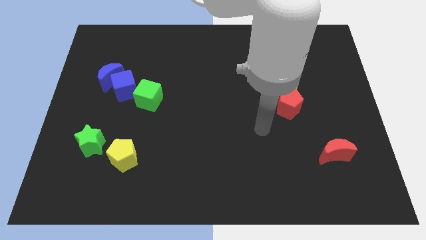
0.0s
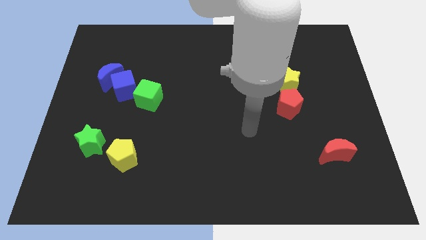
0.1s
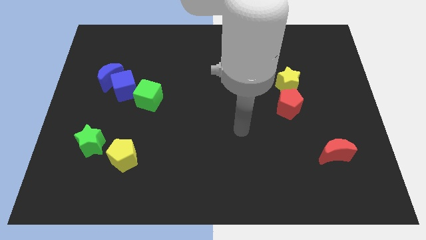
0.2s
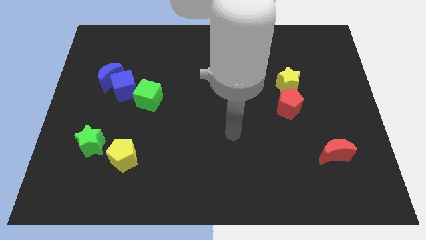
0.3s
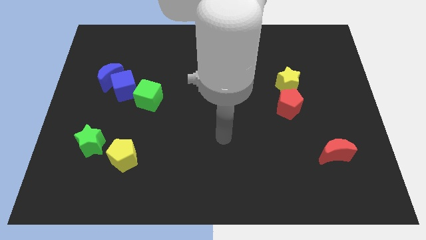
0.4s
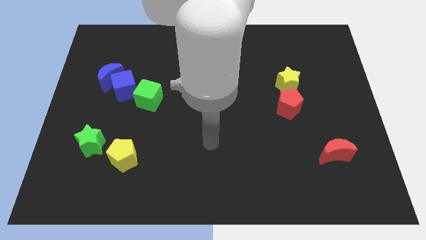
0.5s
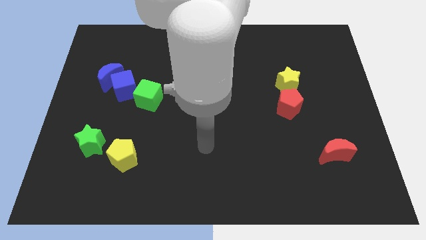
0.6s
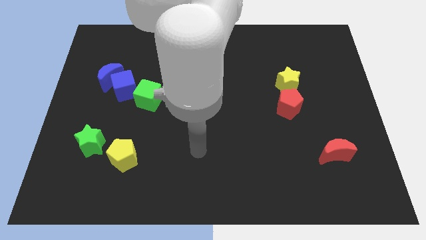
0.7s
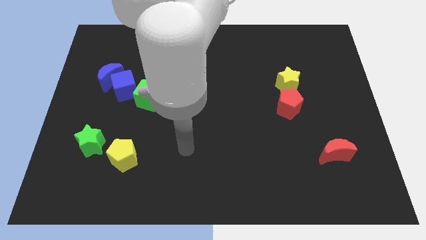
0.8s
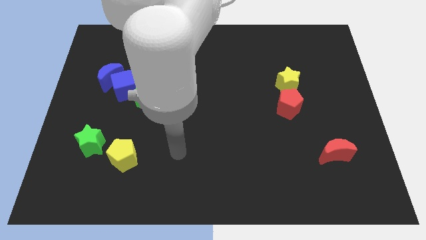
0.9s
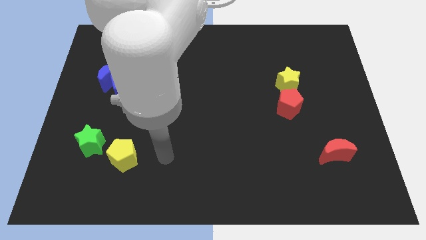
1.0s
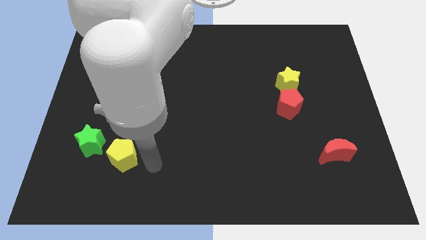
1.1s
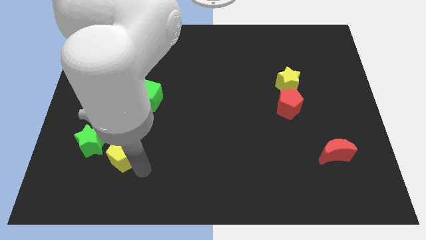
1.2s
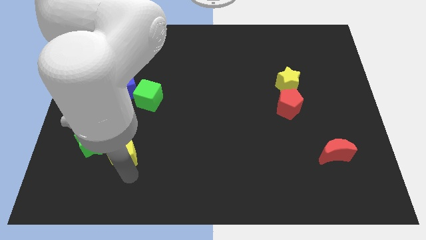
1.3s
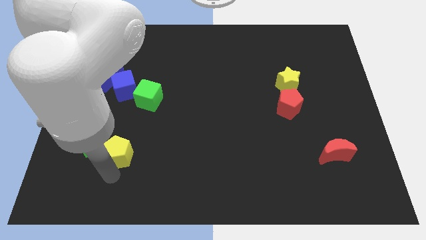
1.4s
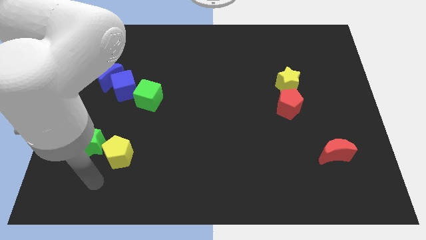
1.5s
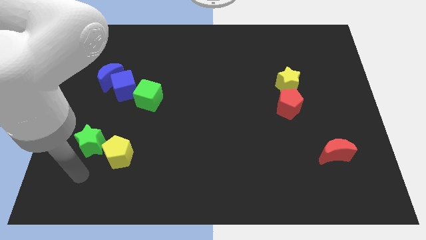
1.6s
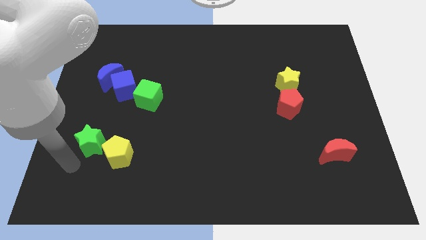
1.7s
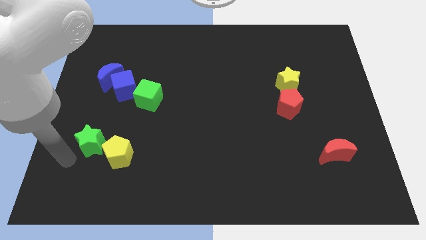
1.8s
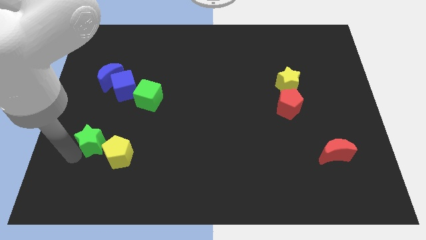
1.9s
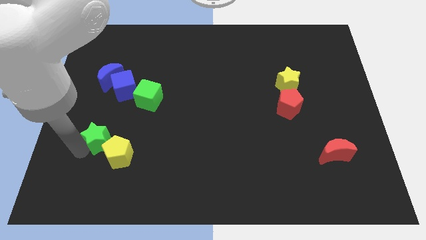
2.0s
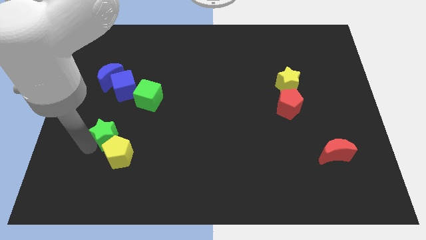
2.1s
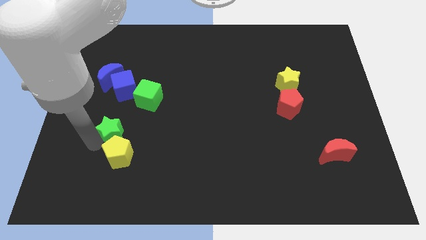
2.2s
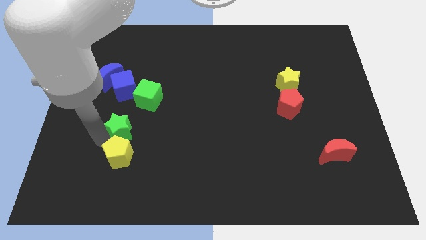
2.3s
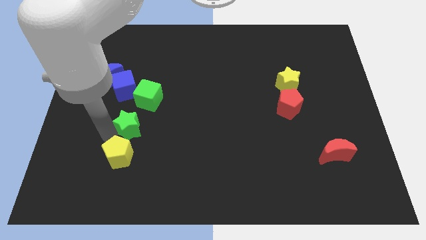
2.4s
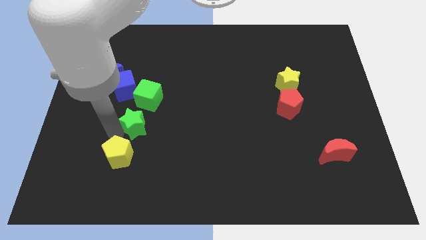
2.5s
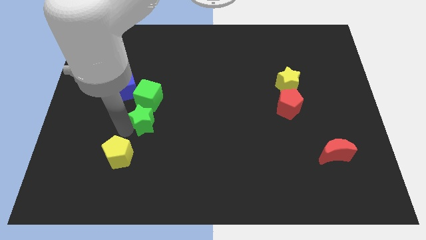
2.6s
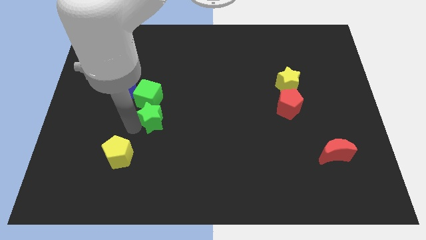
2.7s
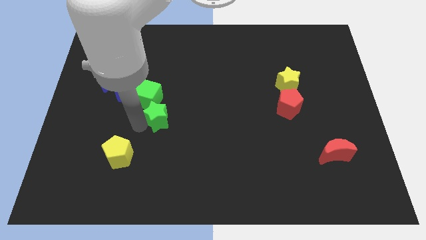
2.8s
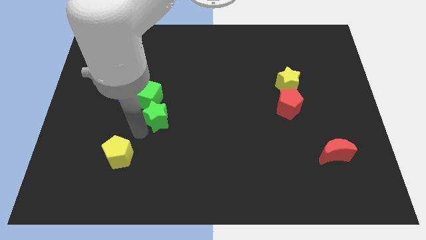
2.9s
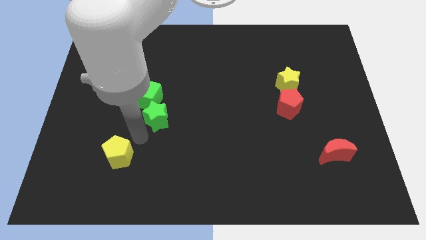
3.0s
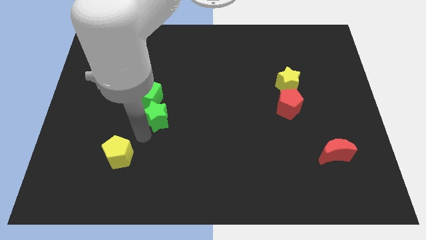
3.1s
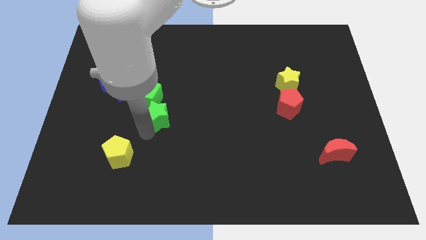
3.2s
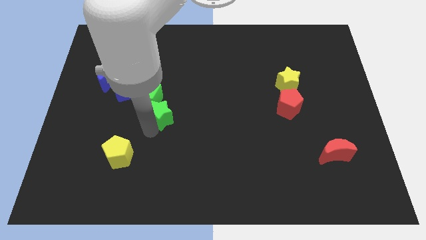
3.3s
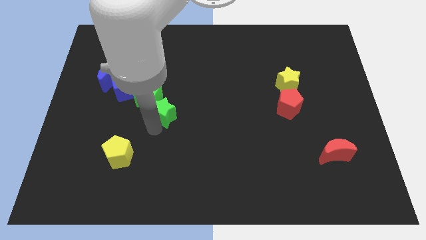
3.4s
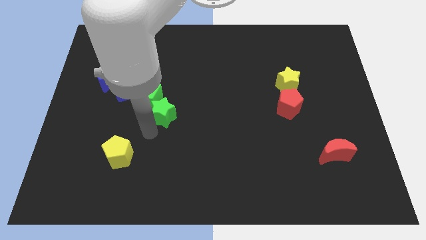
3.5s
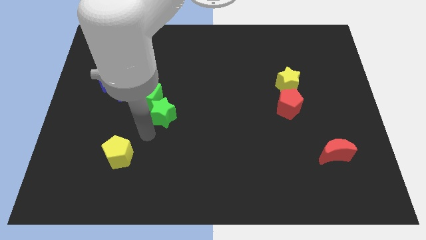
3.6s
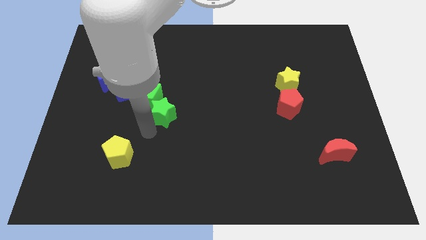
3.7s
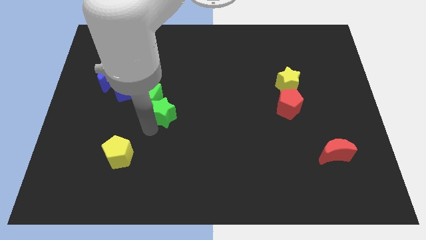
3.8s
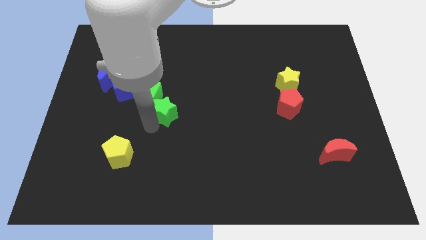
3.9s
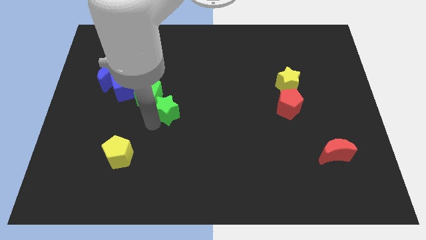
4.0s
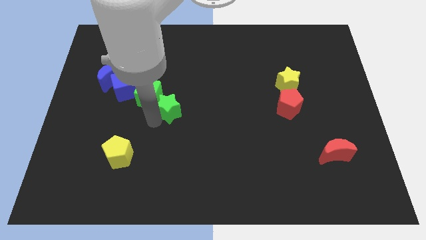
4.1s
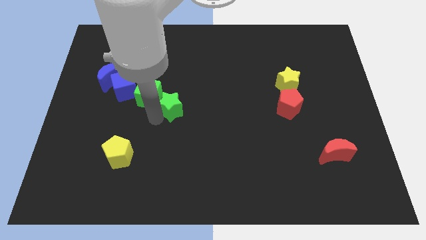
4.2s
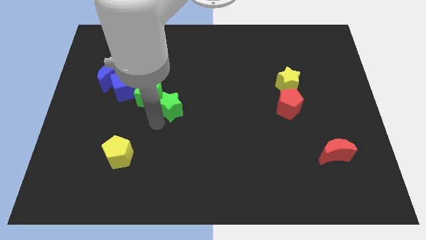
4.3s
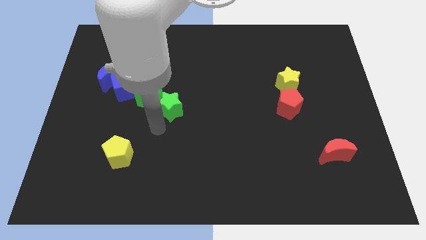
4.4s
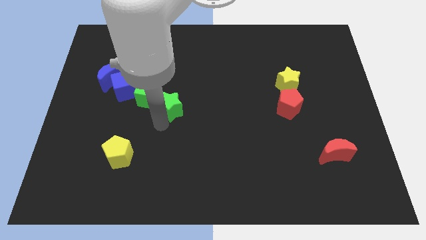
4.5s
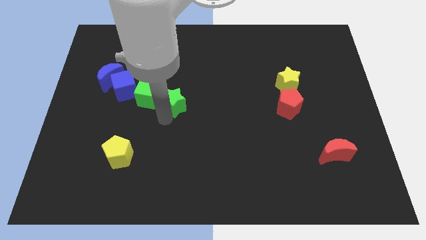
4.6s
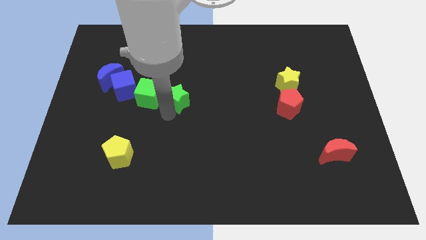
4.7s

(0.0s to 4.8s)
move the green star up and to the right

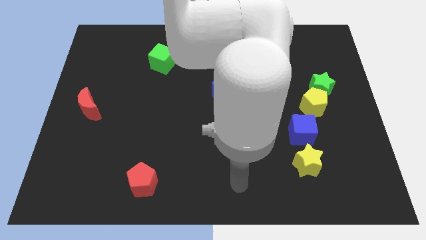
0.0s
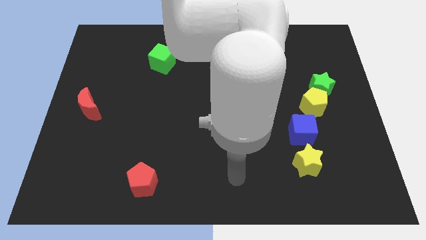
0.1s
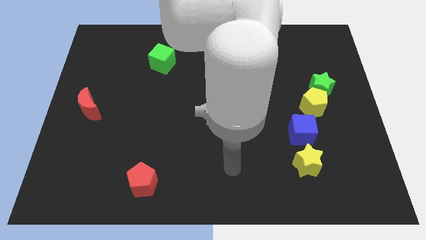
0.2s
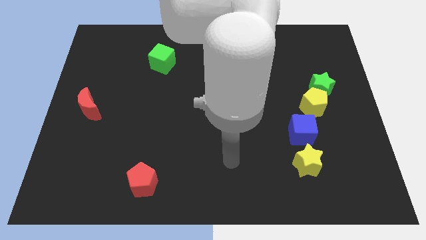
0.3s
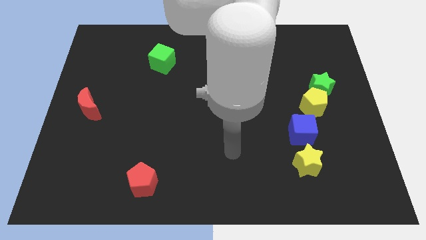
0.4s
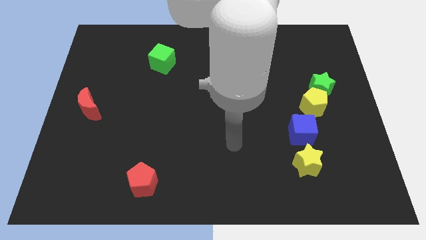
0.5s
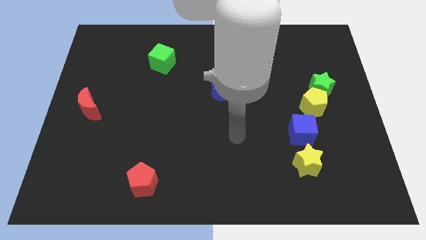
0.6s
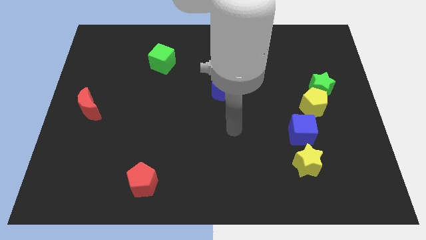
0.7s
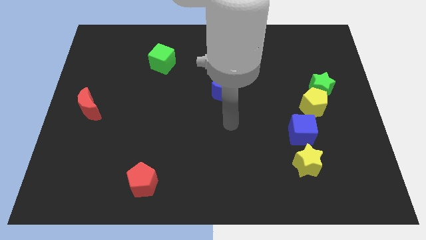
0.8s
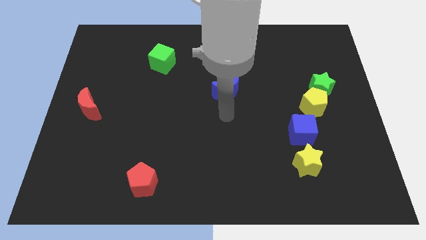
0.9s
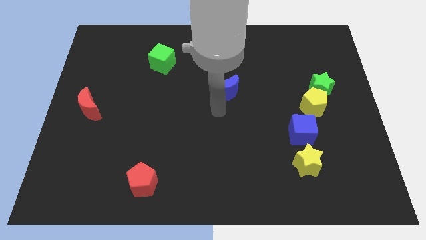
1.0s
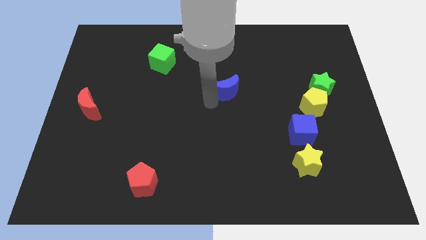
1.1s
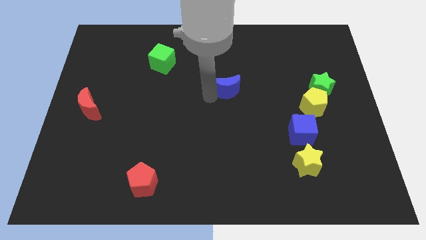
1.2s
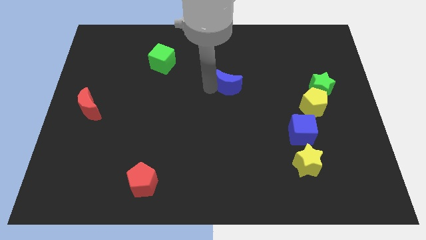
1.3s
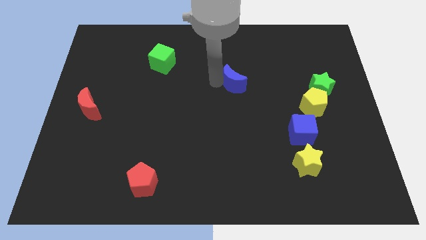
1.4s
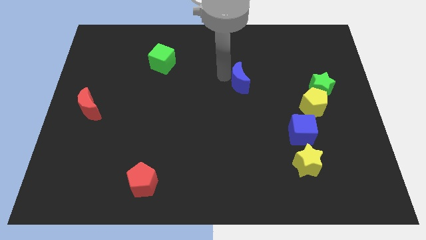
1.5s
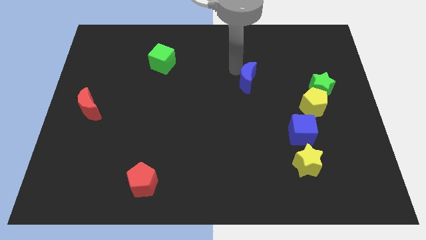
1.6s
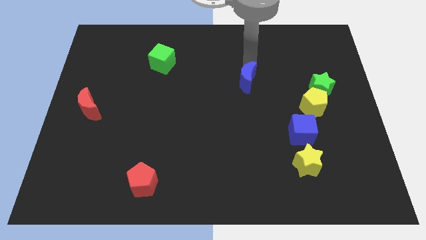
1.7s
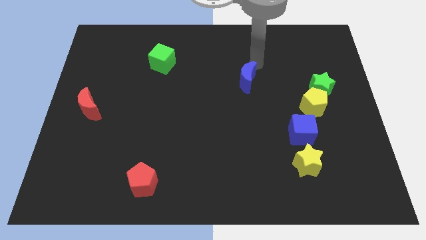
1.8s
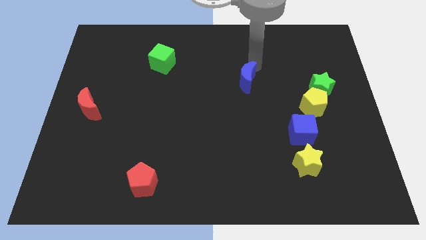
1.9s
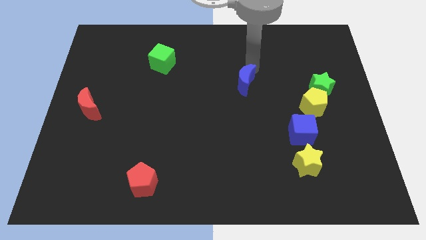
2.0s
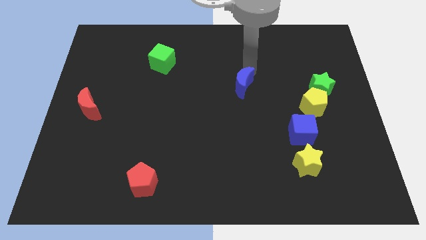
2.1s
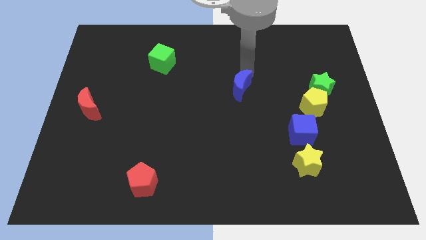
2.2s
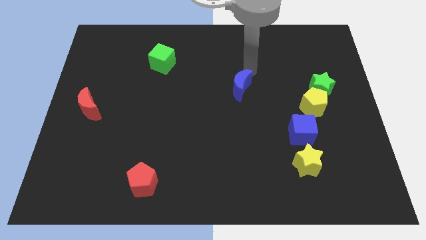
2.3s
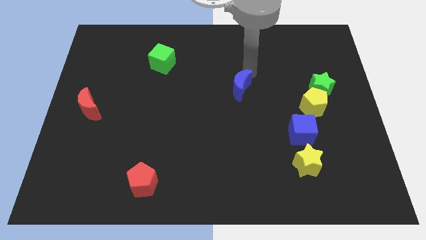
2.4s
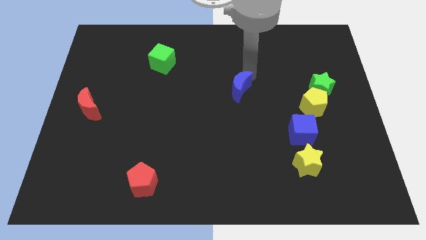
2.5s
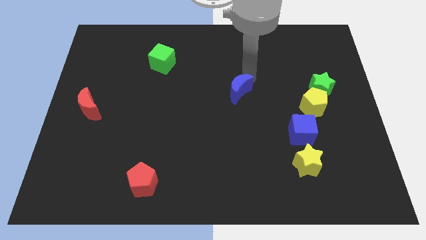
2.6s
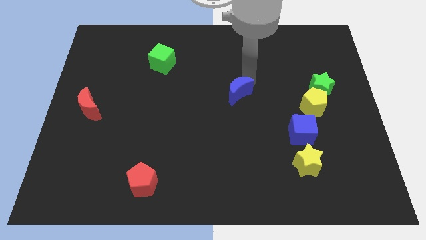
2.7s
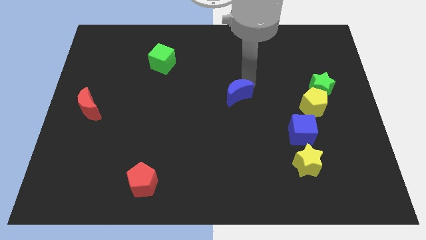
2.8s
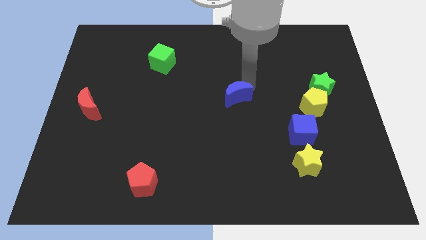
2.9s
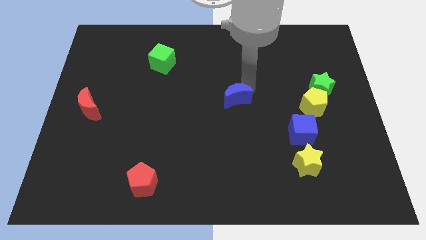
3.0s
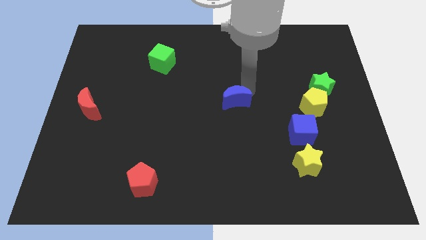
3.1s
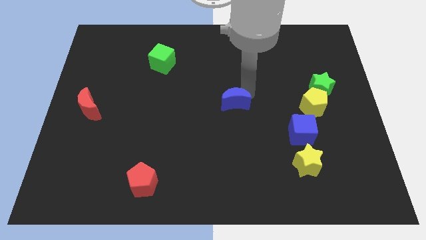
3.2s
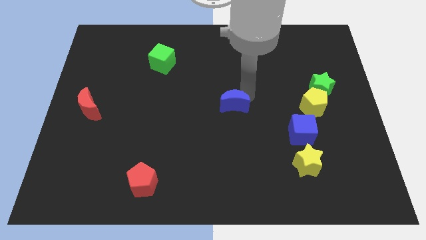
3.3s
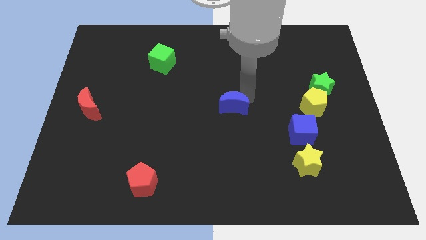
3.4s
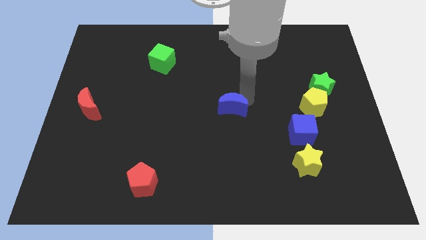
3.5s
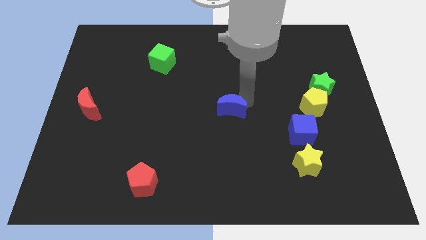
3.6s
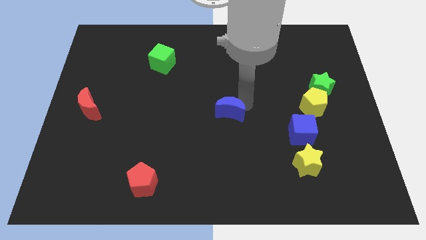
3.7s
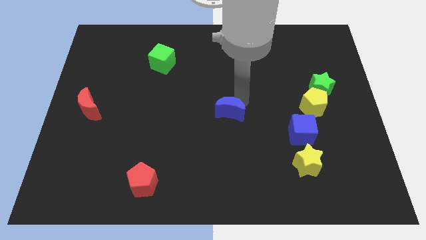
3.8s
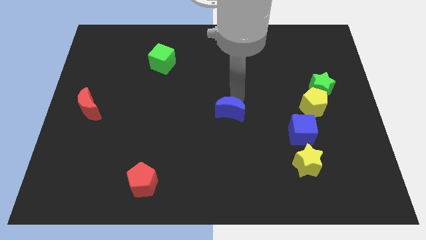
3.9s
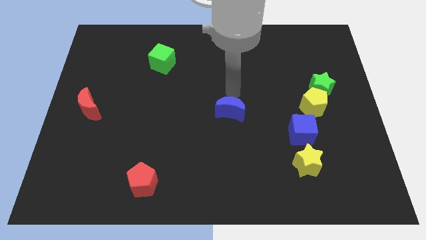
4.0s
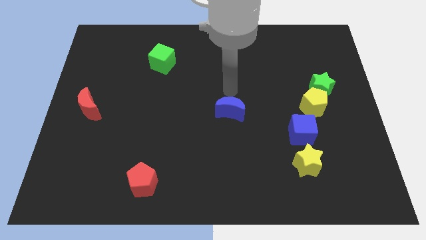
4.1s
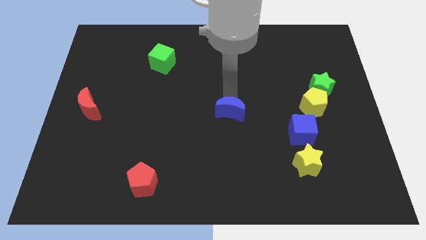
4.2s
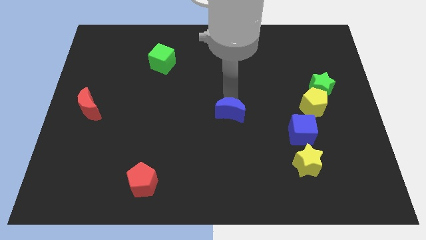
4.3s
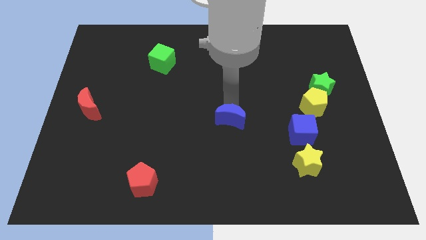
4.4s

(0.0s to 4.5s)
slightly move the blue moon downwards
